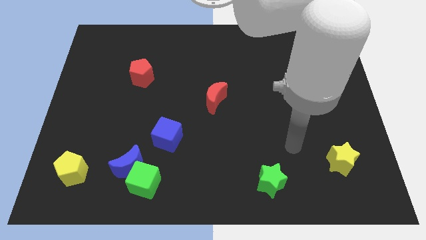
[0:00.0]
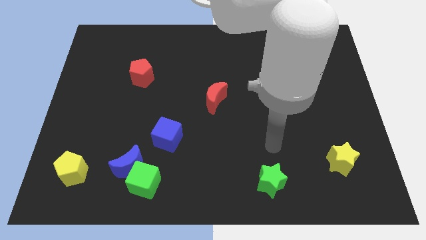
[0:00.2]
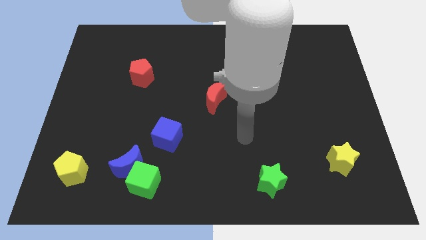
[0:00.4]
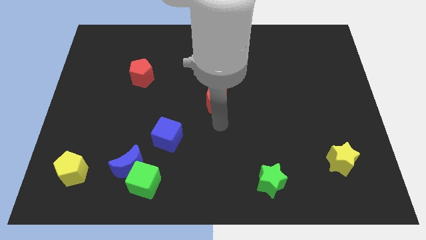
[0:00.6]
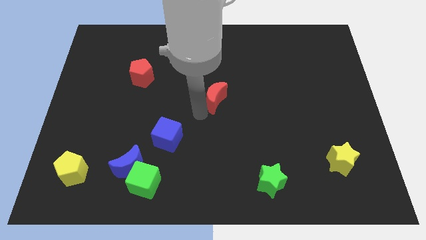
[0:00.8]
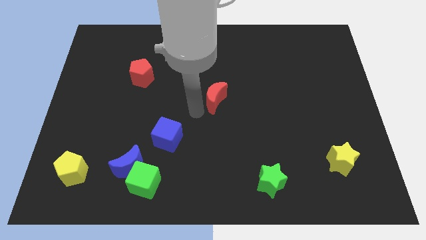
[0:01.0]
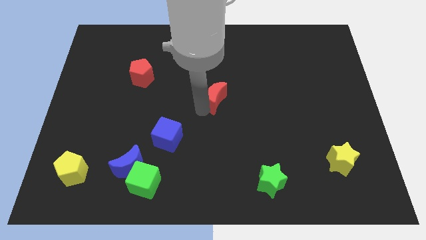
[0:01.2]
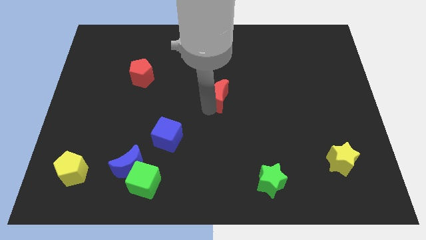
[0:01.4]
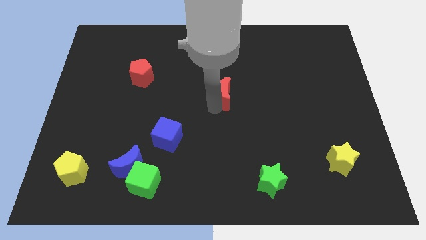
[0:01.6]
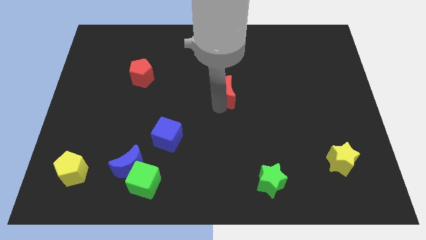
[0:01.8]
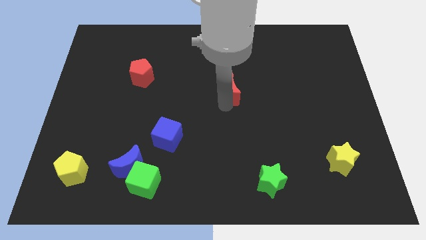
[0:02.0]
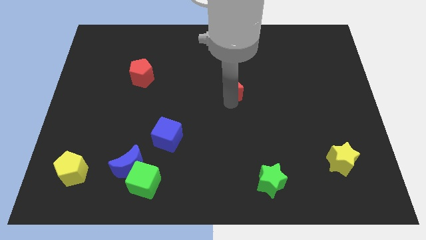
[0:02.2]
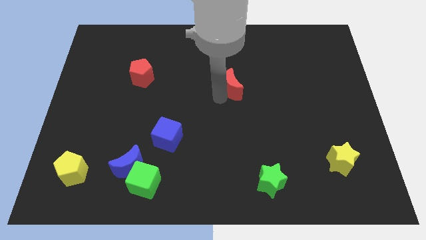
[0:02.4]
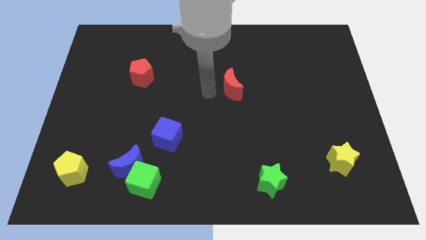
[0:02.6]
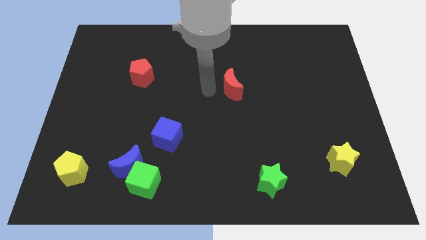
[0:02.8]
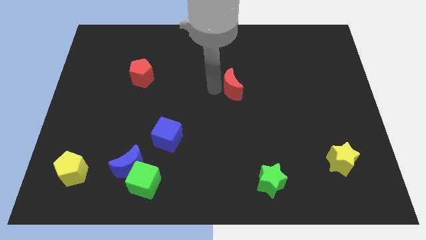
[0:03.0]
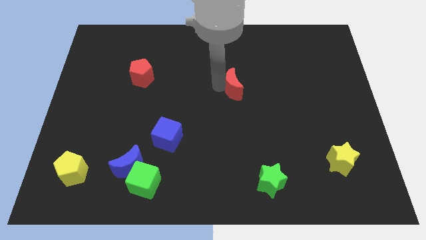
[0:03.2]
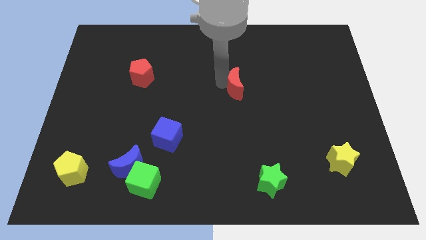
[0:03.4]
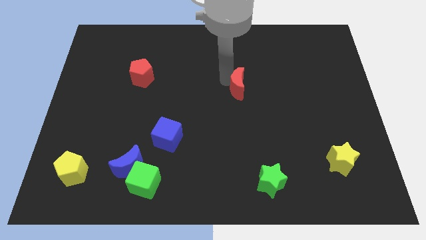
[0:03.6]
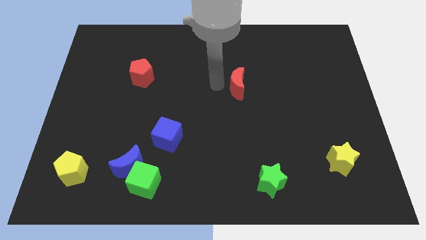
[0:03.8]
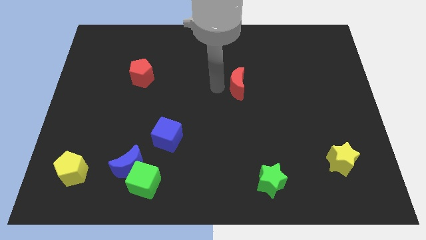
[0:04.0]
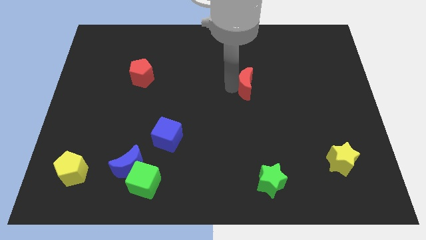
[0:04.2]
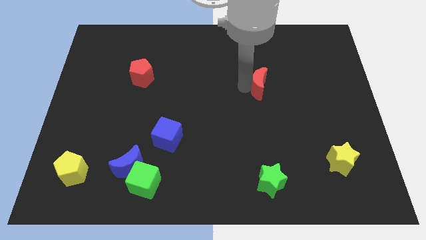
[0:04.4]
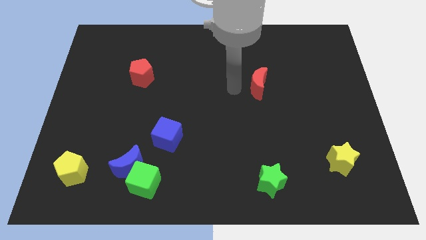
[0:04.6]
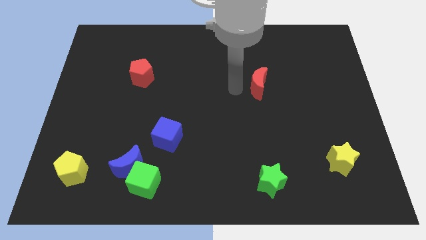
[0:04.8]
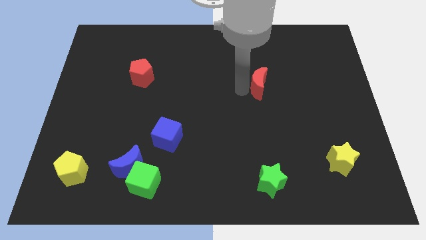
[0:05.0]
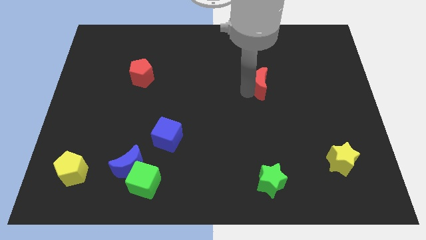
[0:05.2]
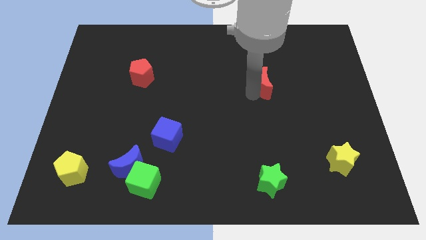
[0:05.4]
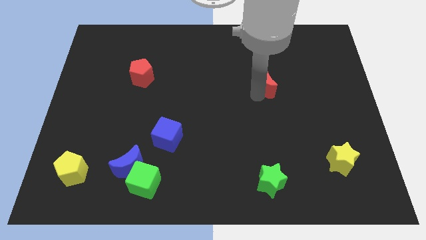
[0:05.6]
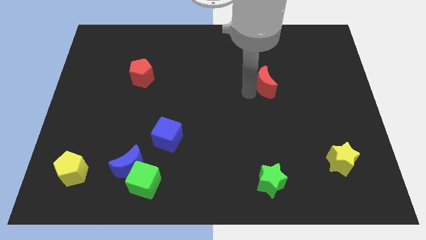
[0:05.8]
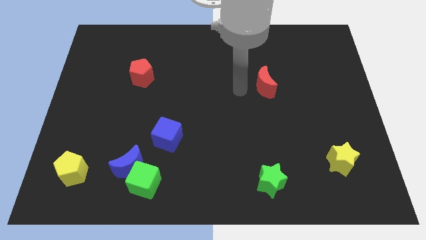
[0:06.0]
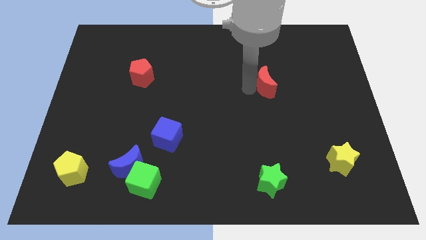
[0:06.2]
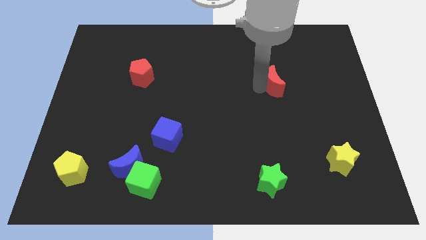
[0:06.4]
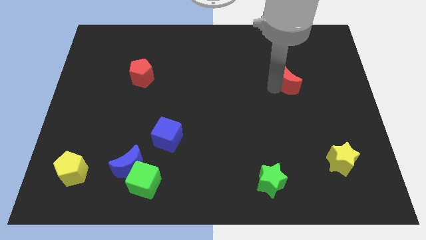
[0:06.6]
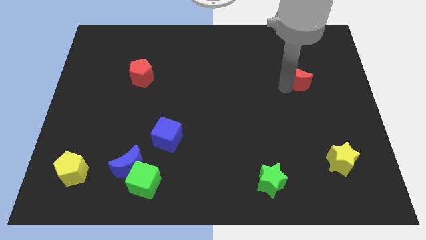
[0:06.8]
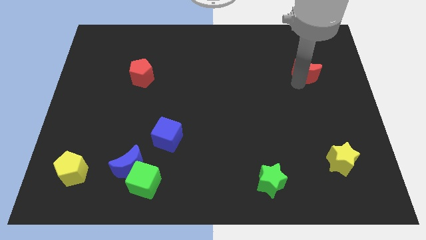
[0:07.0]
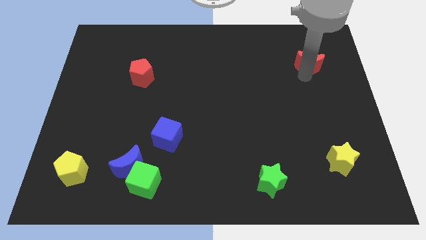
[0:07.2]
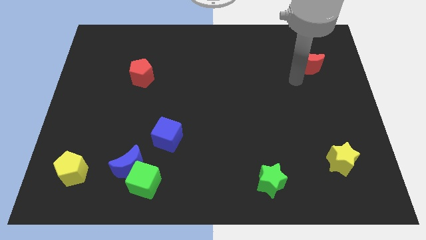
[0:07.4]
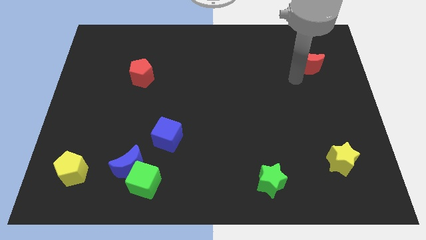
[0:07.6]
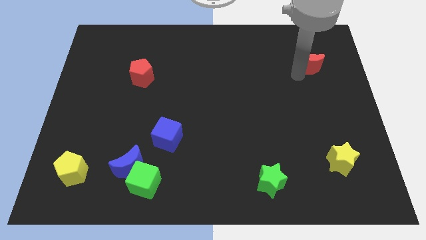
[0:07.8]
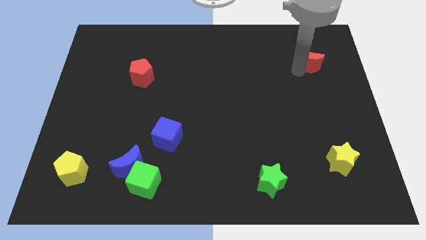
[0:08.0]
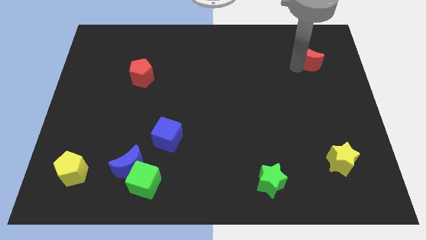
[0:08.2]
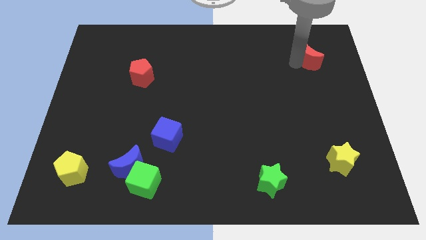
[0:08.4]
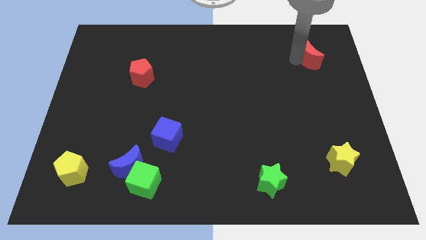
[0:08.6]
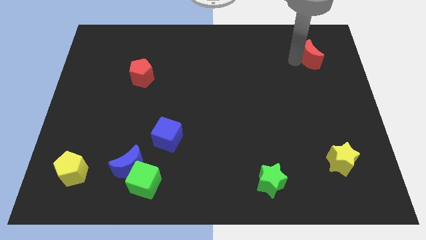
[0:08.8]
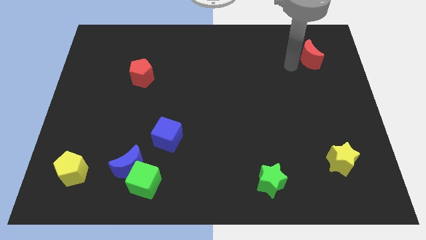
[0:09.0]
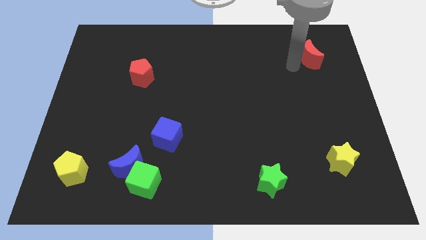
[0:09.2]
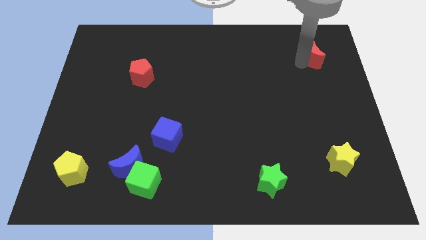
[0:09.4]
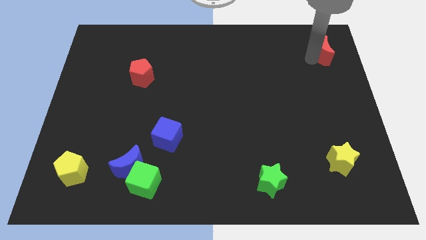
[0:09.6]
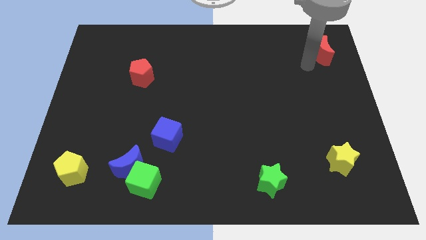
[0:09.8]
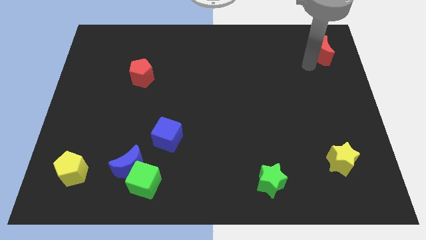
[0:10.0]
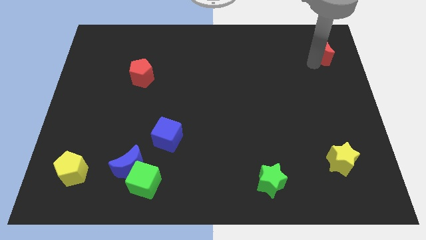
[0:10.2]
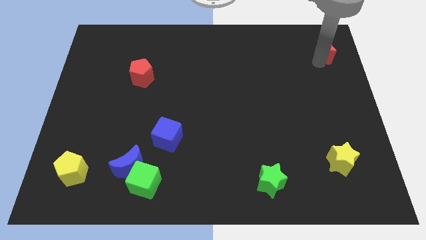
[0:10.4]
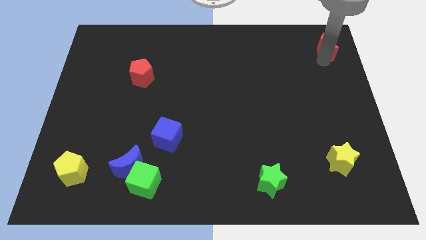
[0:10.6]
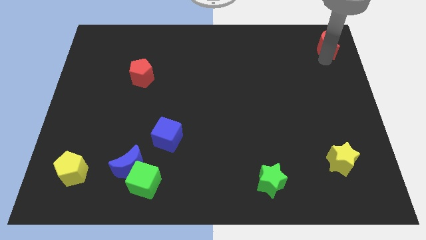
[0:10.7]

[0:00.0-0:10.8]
put the red moon to the top right of the board

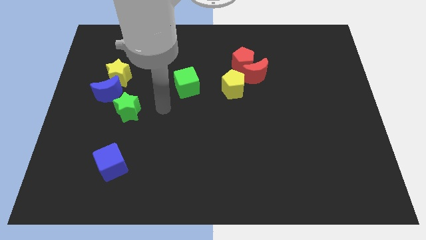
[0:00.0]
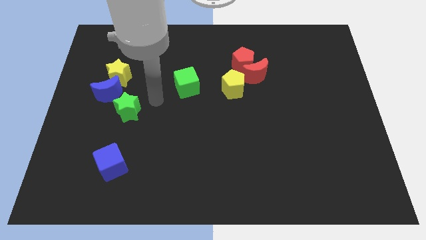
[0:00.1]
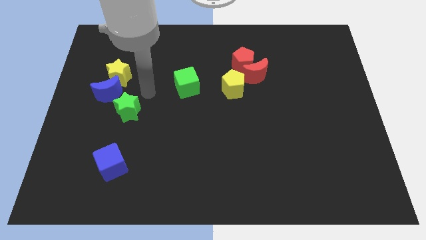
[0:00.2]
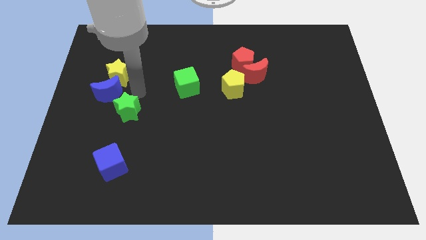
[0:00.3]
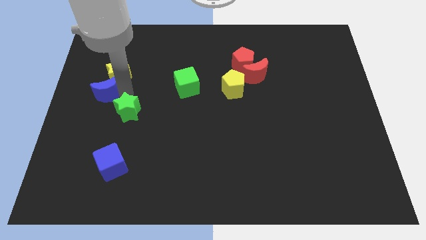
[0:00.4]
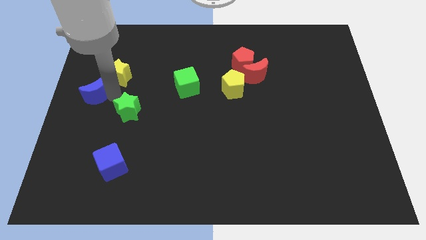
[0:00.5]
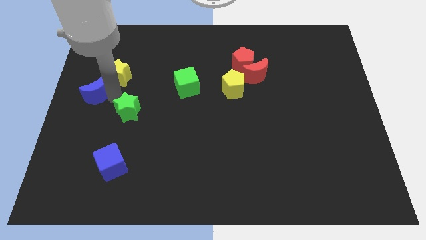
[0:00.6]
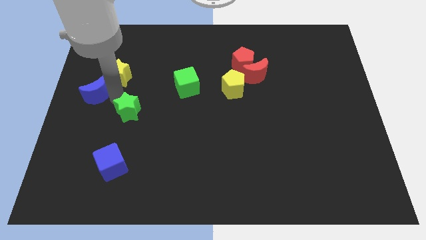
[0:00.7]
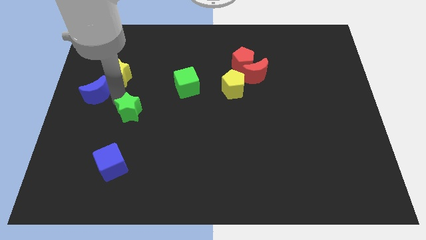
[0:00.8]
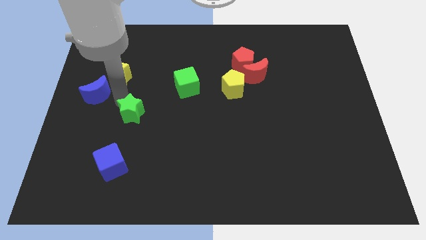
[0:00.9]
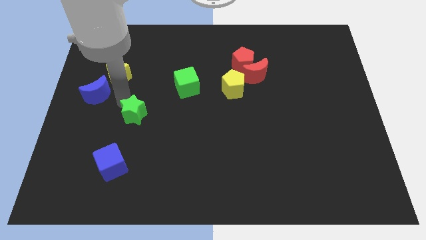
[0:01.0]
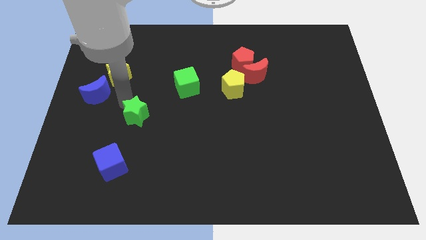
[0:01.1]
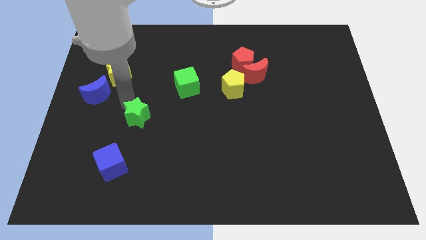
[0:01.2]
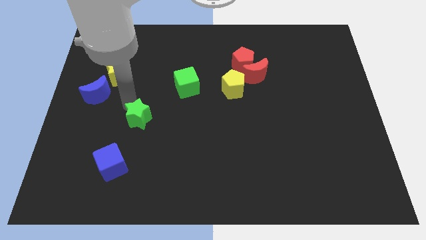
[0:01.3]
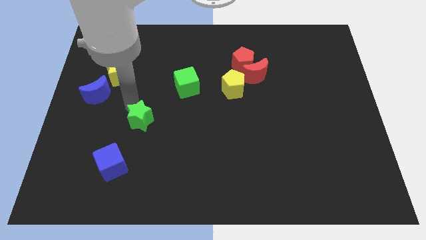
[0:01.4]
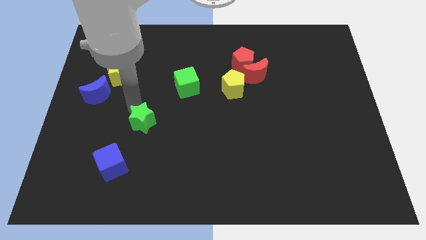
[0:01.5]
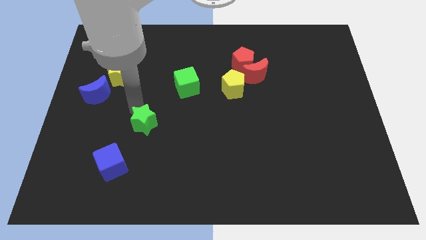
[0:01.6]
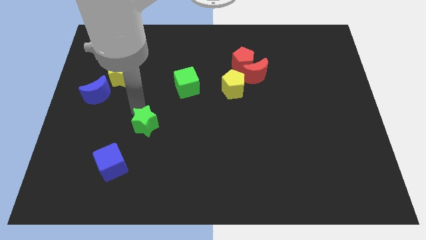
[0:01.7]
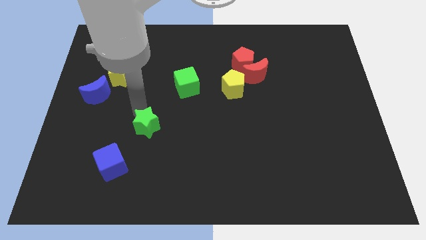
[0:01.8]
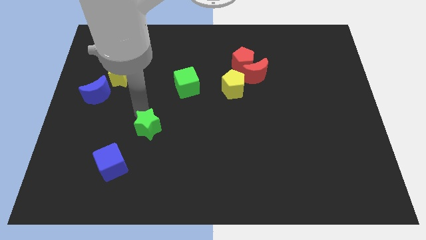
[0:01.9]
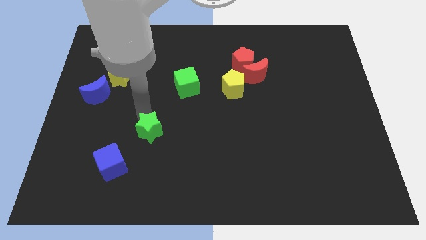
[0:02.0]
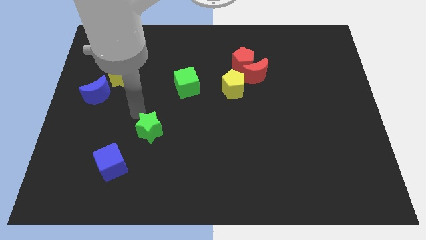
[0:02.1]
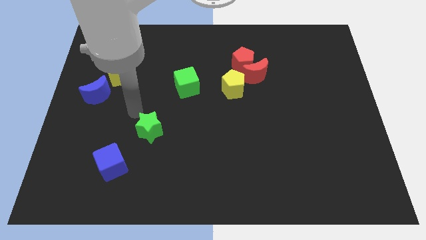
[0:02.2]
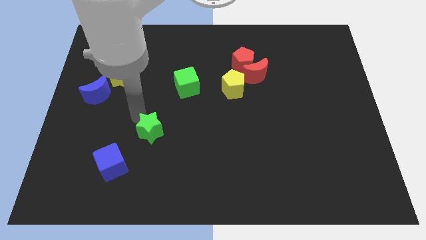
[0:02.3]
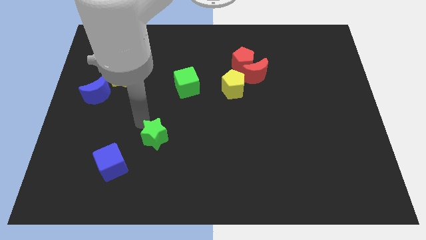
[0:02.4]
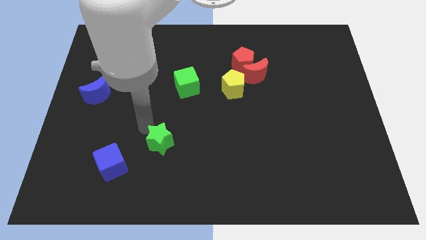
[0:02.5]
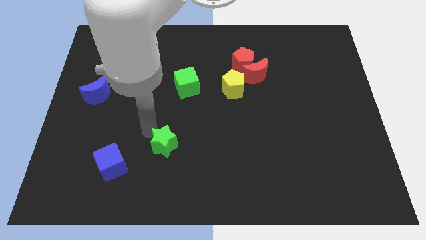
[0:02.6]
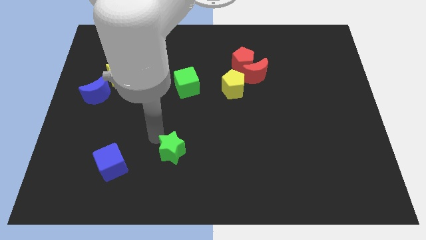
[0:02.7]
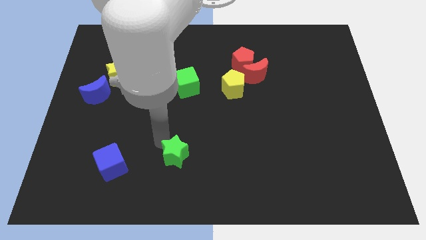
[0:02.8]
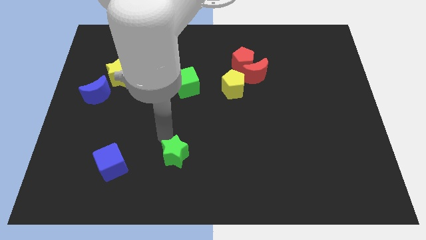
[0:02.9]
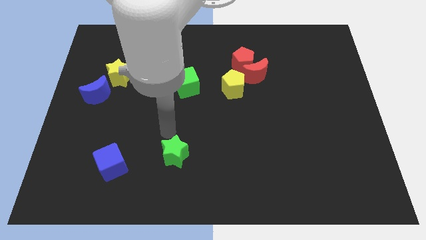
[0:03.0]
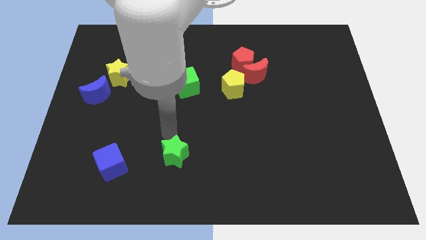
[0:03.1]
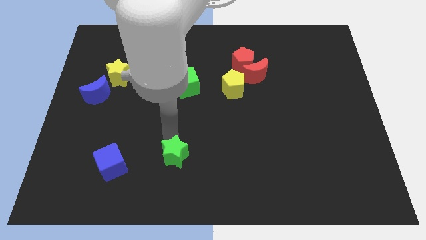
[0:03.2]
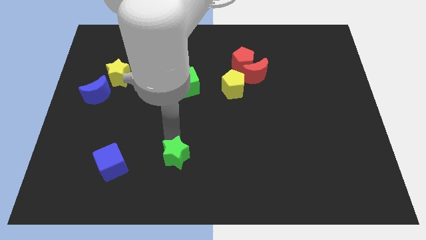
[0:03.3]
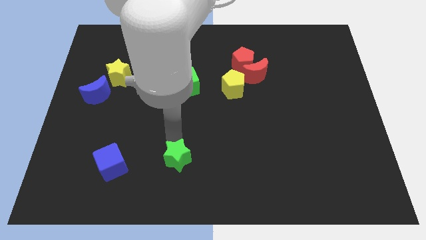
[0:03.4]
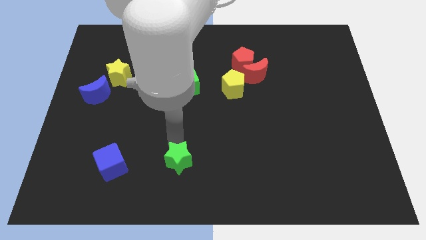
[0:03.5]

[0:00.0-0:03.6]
move the green star to the bottom
